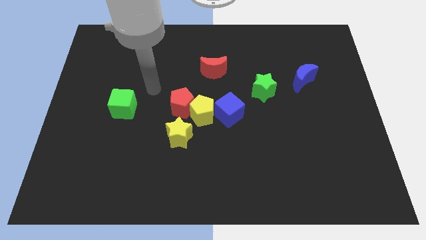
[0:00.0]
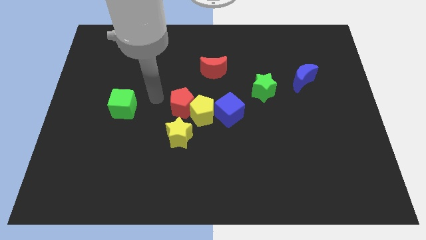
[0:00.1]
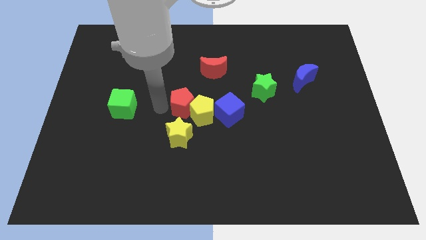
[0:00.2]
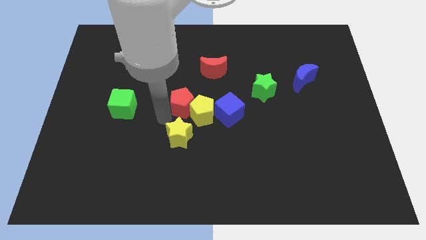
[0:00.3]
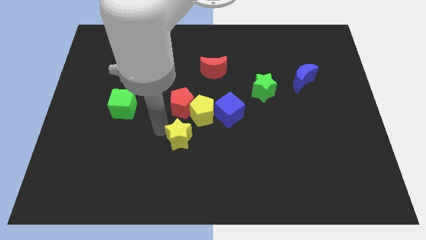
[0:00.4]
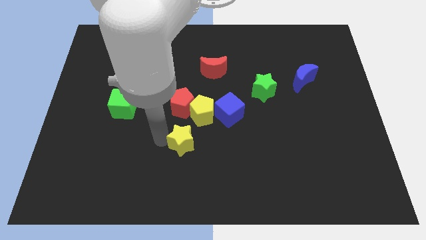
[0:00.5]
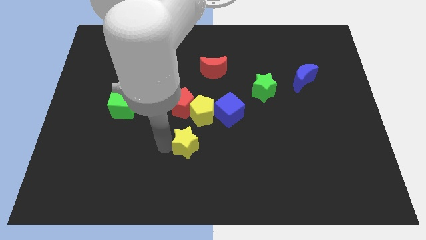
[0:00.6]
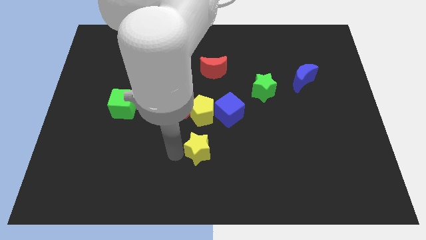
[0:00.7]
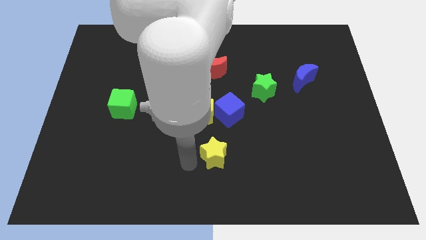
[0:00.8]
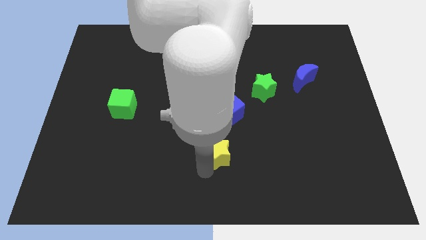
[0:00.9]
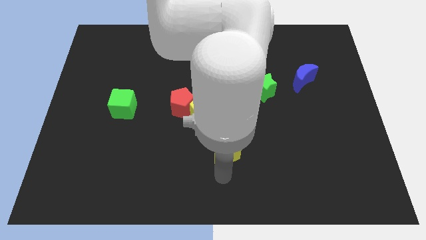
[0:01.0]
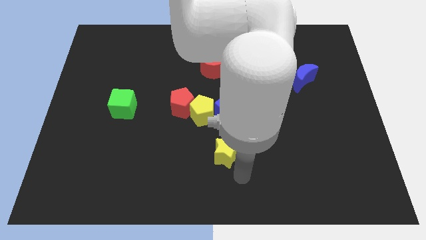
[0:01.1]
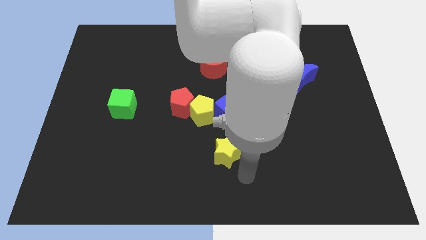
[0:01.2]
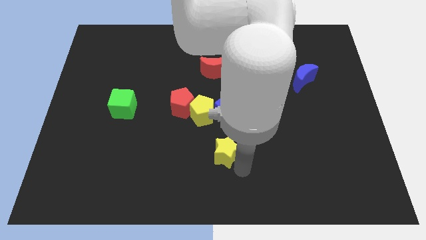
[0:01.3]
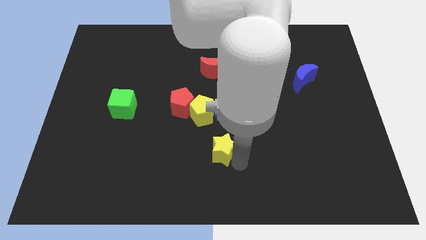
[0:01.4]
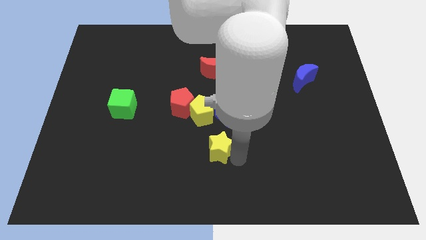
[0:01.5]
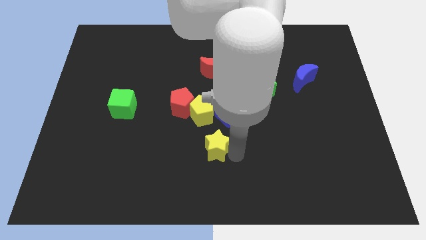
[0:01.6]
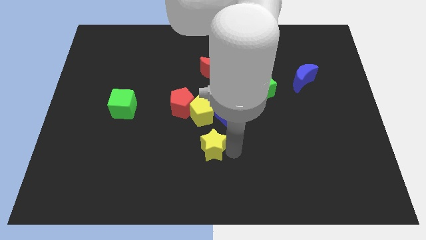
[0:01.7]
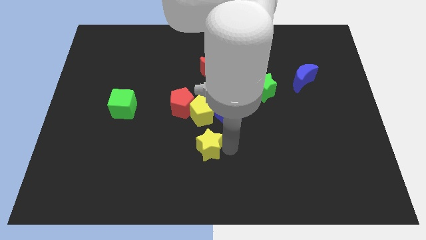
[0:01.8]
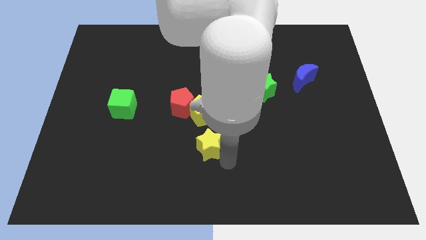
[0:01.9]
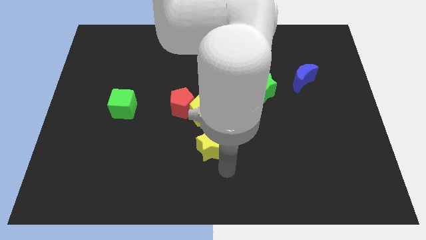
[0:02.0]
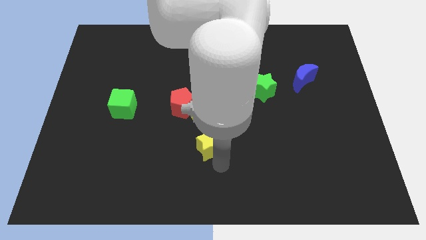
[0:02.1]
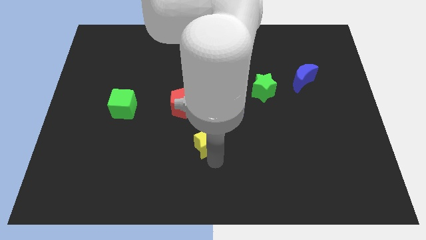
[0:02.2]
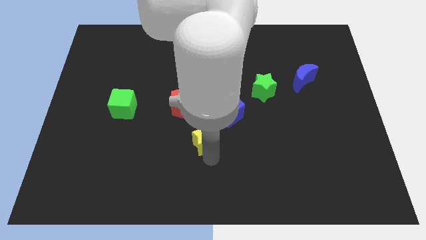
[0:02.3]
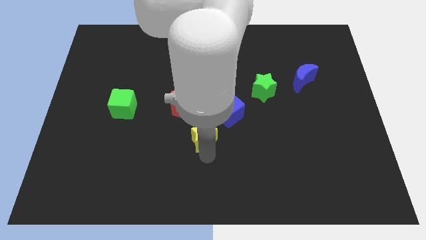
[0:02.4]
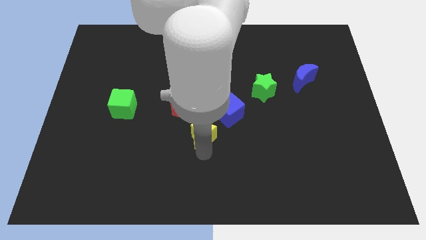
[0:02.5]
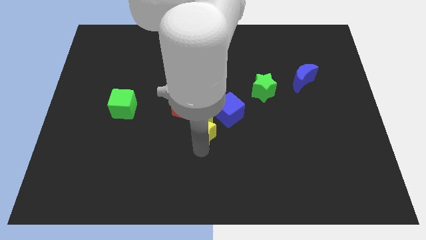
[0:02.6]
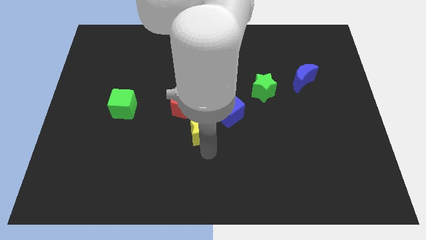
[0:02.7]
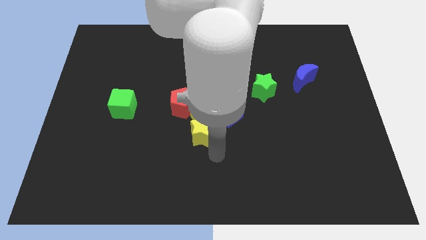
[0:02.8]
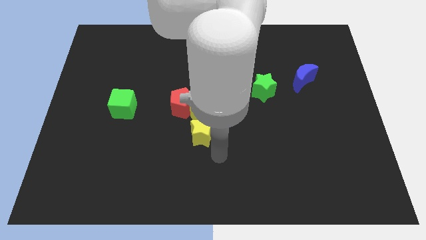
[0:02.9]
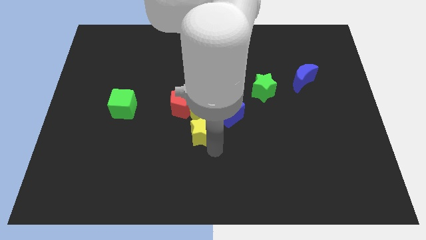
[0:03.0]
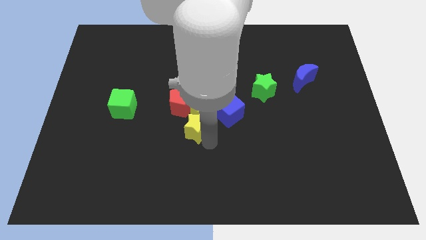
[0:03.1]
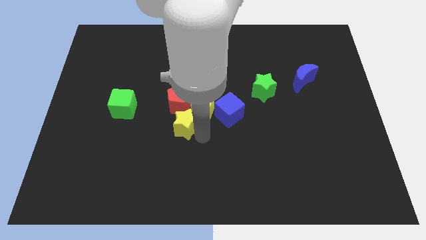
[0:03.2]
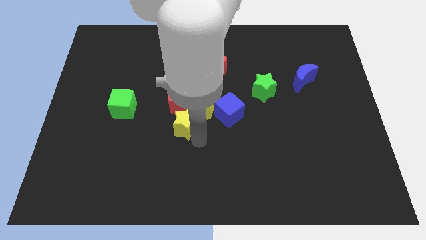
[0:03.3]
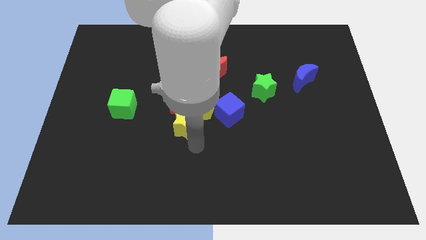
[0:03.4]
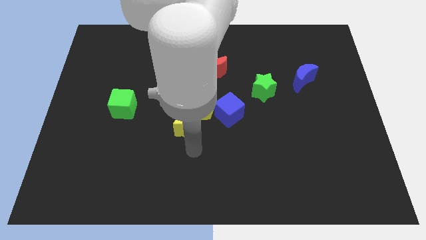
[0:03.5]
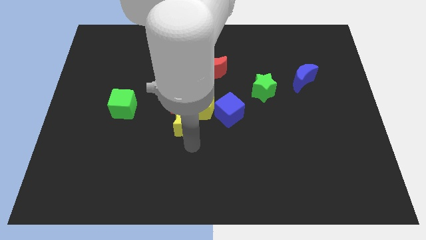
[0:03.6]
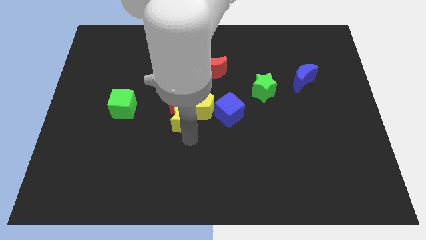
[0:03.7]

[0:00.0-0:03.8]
put the yellow star close to the red pentagon

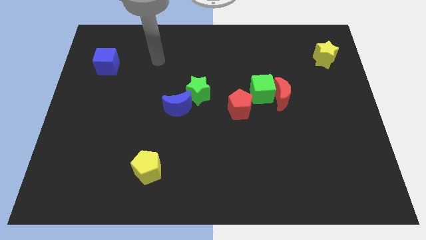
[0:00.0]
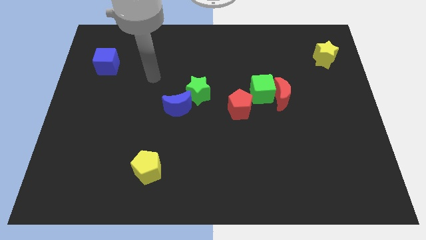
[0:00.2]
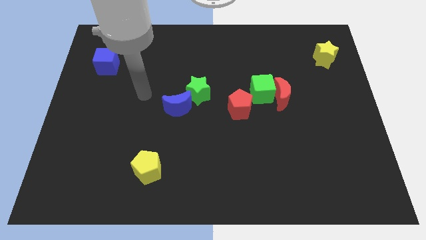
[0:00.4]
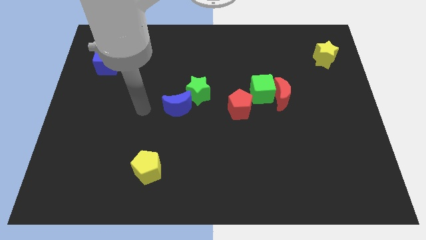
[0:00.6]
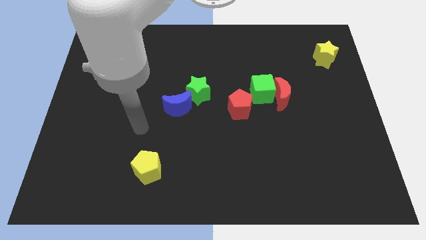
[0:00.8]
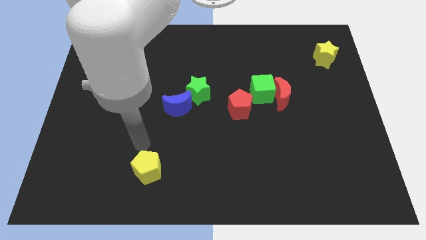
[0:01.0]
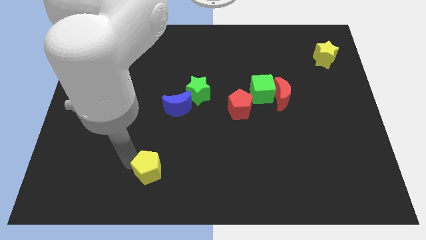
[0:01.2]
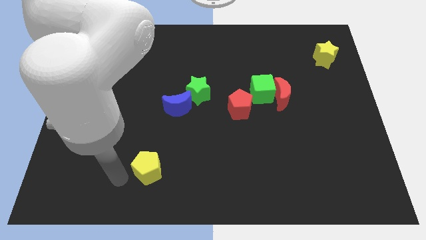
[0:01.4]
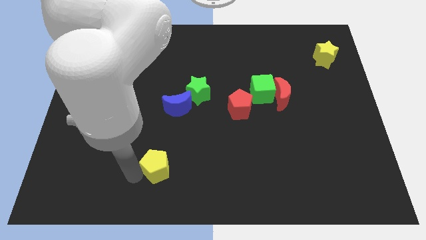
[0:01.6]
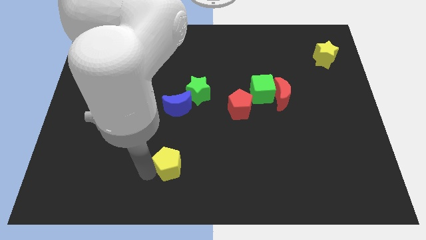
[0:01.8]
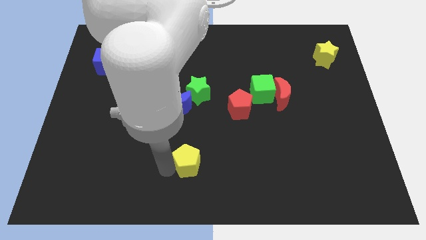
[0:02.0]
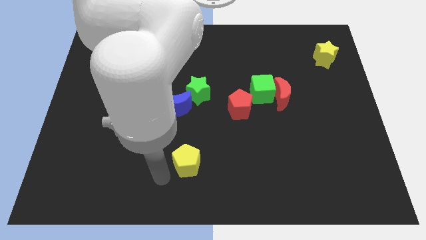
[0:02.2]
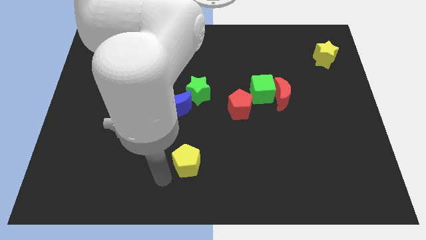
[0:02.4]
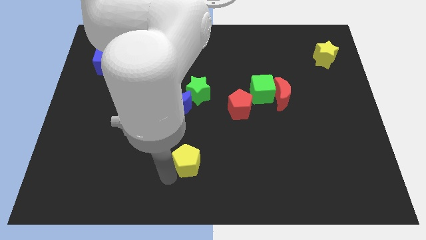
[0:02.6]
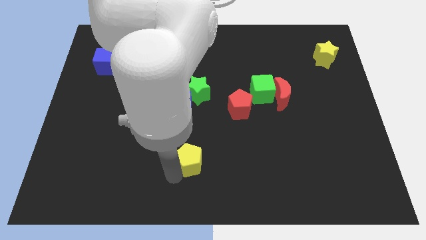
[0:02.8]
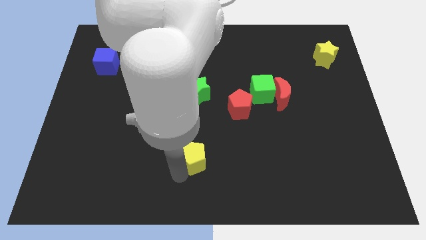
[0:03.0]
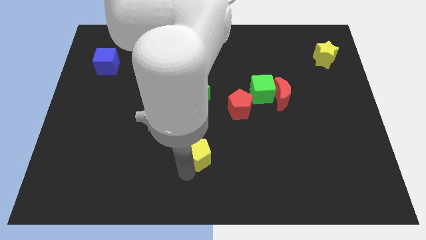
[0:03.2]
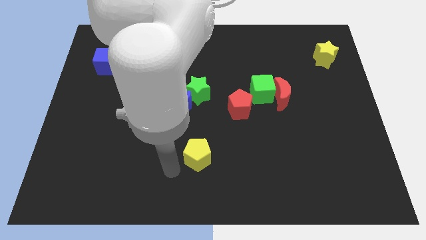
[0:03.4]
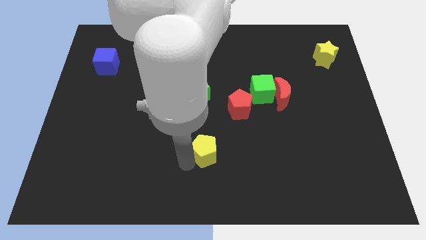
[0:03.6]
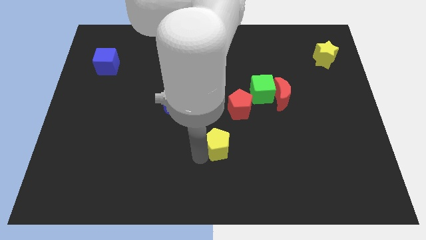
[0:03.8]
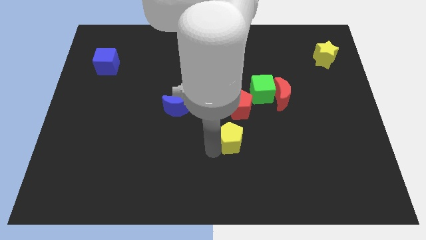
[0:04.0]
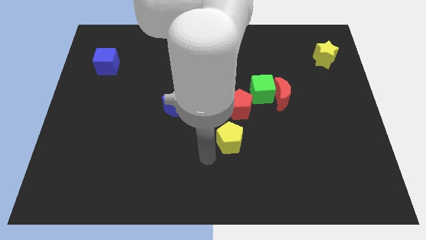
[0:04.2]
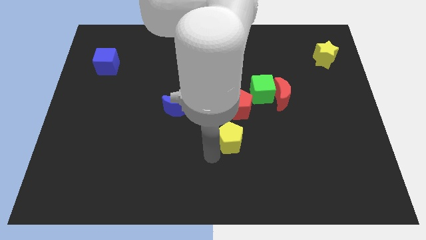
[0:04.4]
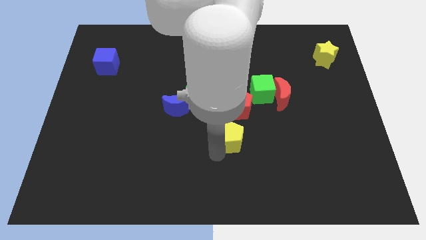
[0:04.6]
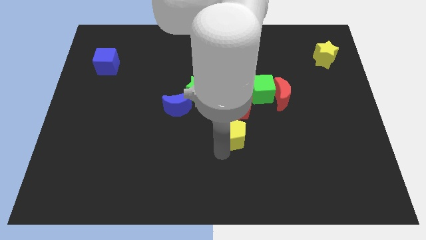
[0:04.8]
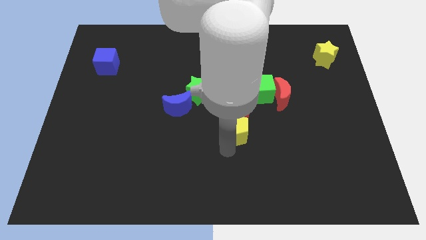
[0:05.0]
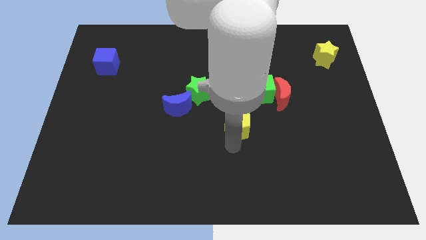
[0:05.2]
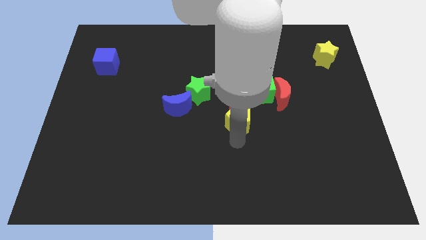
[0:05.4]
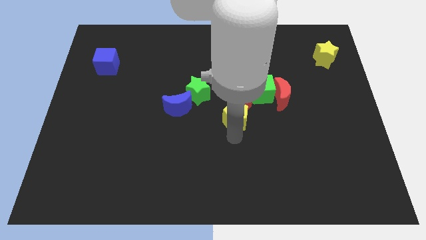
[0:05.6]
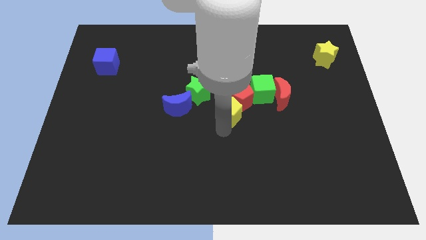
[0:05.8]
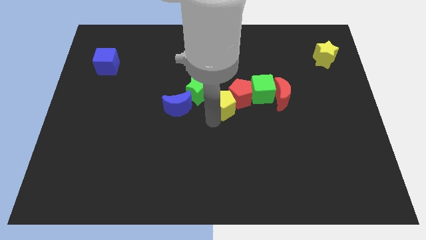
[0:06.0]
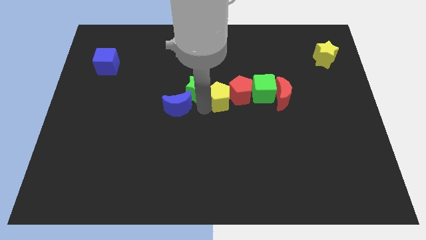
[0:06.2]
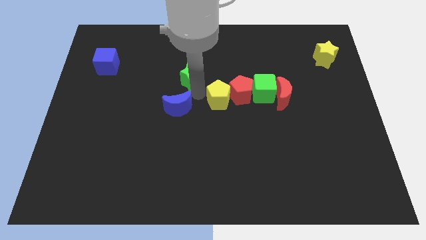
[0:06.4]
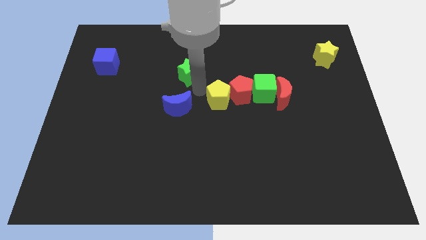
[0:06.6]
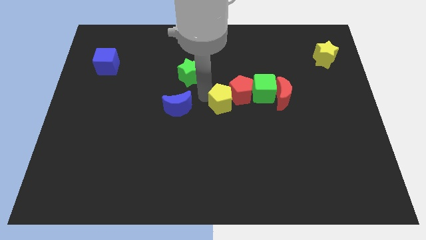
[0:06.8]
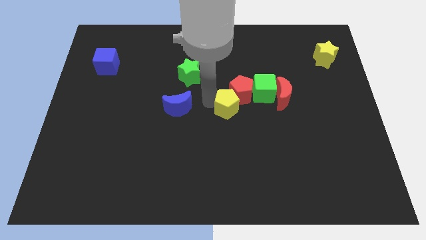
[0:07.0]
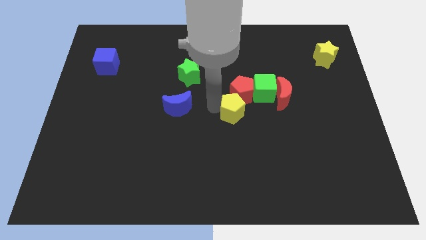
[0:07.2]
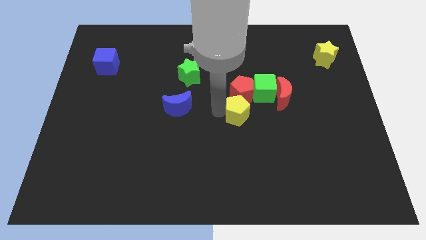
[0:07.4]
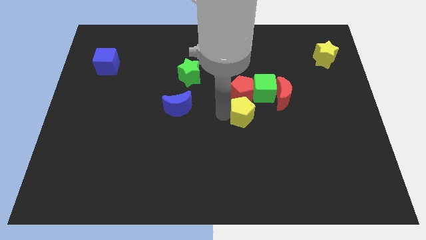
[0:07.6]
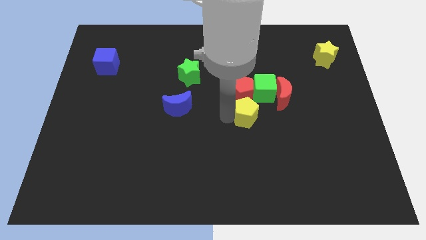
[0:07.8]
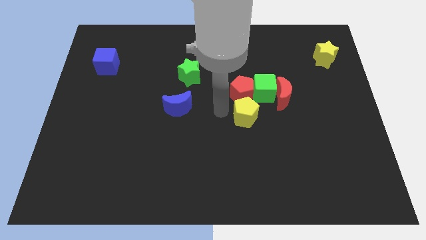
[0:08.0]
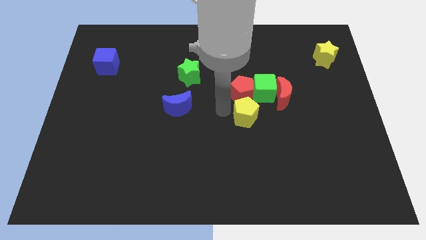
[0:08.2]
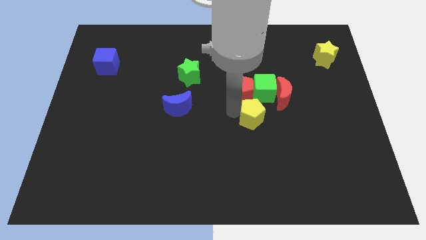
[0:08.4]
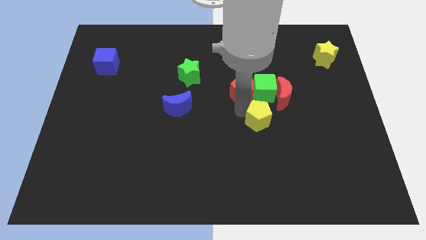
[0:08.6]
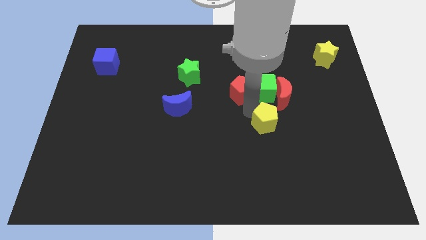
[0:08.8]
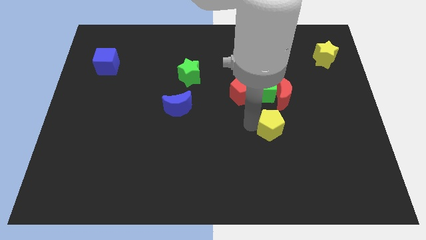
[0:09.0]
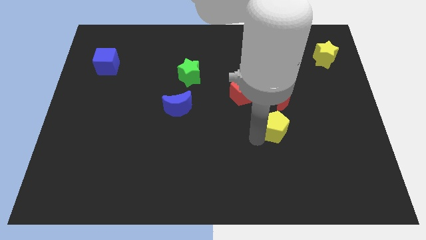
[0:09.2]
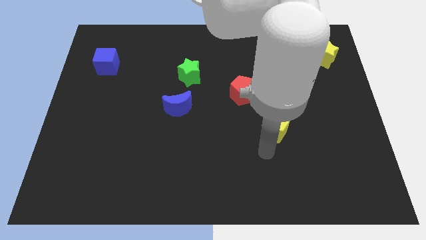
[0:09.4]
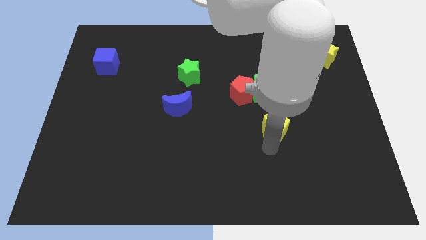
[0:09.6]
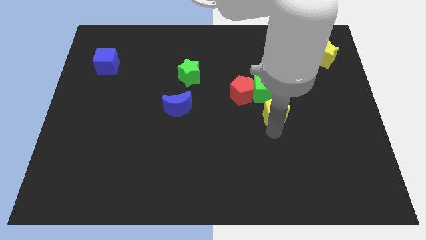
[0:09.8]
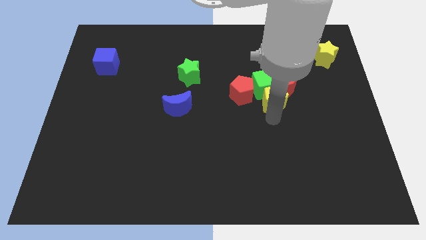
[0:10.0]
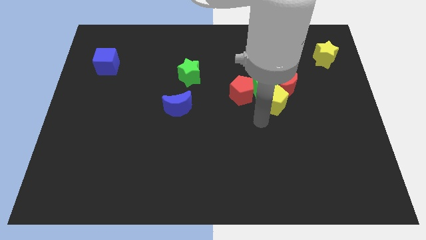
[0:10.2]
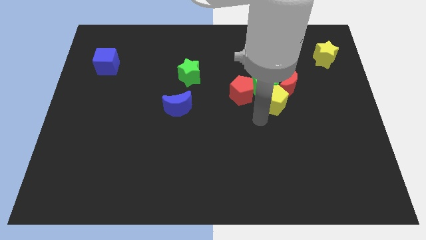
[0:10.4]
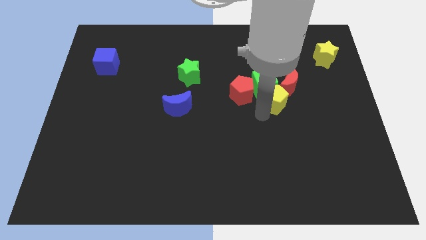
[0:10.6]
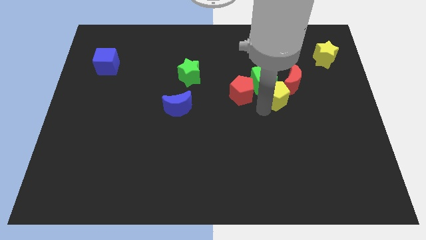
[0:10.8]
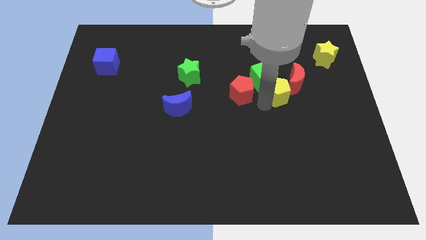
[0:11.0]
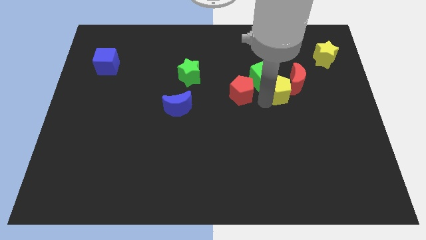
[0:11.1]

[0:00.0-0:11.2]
slide the yellow pentagon close to the red moon
